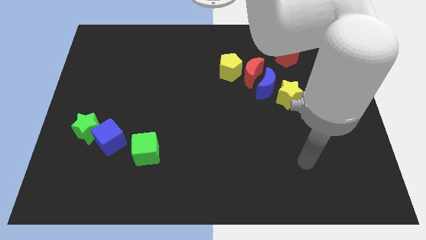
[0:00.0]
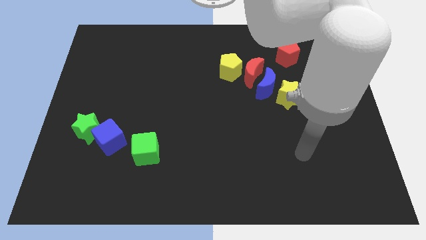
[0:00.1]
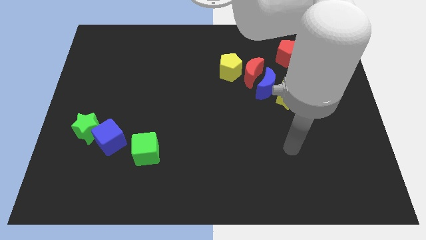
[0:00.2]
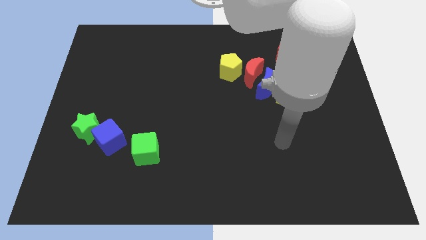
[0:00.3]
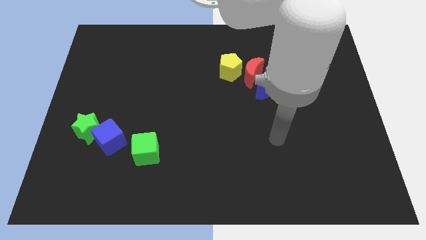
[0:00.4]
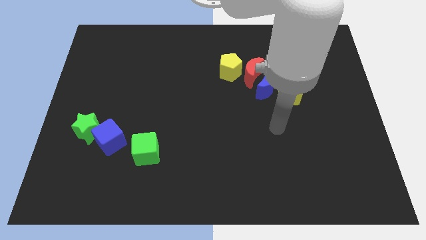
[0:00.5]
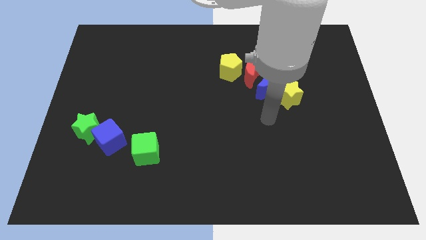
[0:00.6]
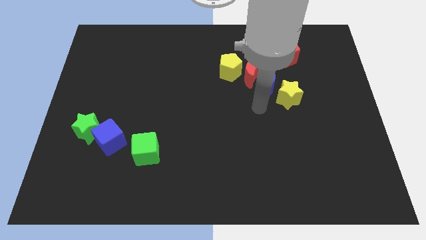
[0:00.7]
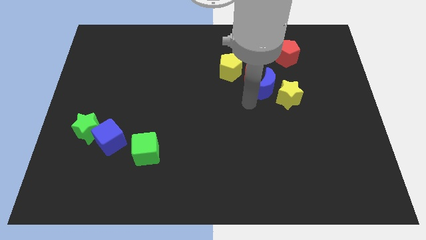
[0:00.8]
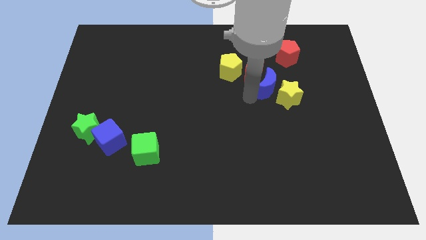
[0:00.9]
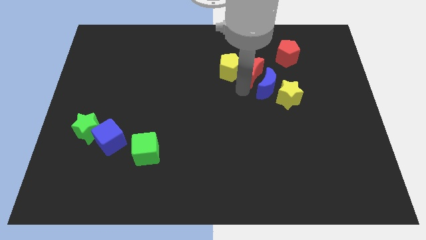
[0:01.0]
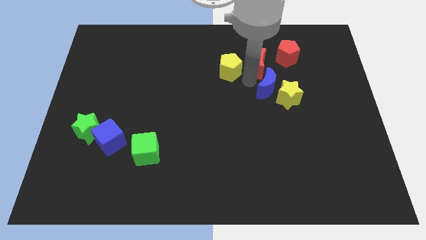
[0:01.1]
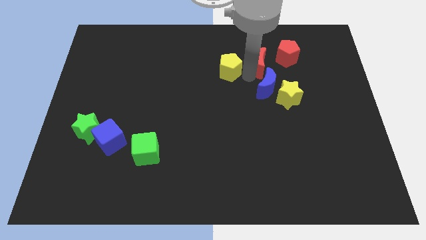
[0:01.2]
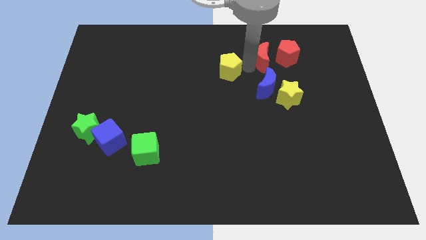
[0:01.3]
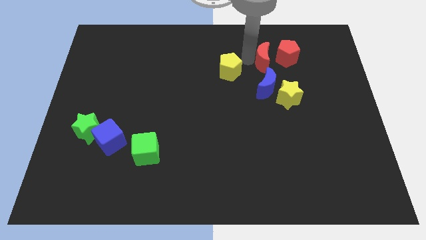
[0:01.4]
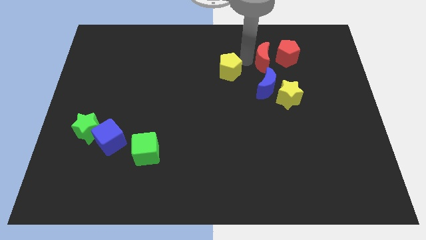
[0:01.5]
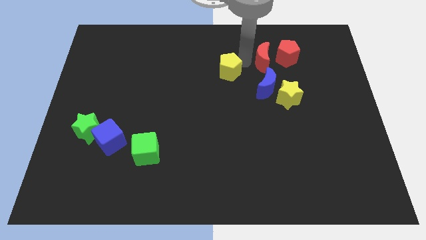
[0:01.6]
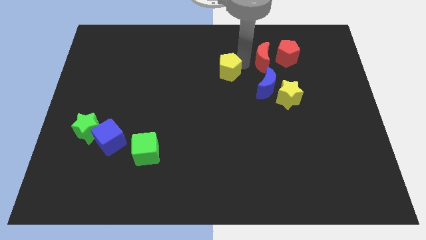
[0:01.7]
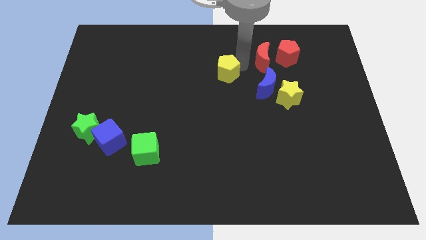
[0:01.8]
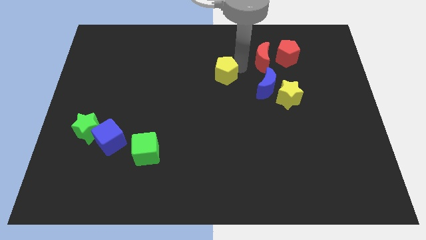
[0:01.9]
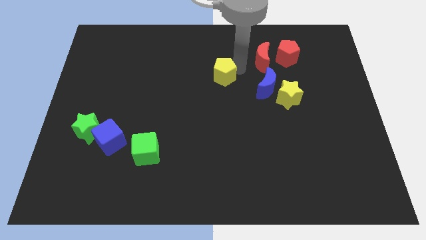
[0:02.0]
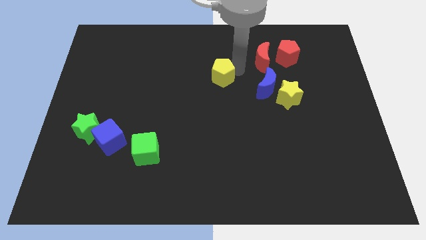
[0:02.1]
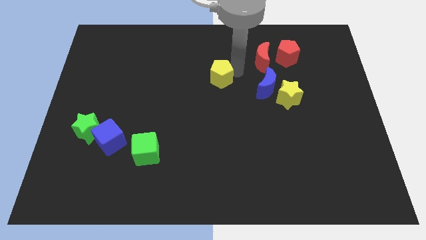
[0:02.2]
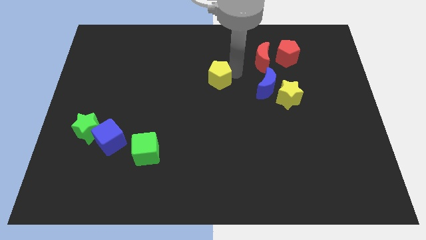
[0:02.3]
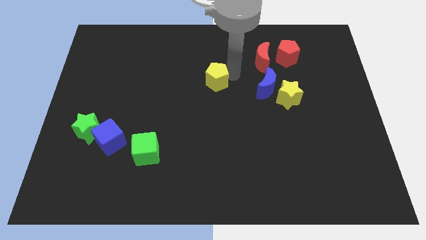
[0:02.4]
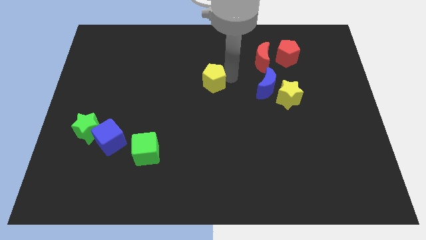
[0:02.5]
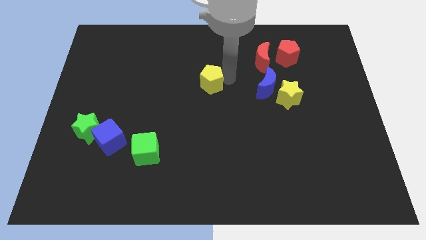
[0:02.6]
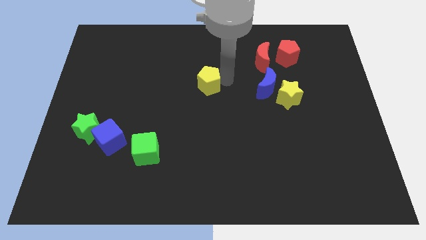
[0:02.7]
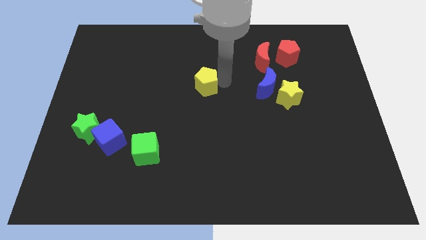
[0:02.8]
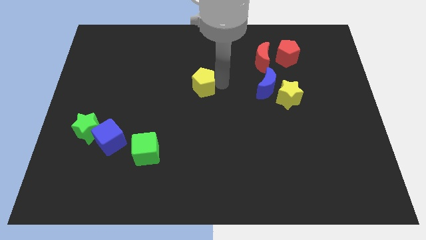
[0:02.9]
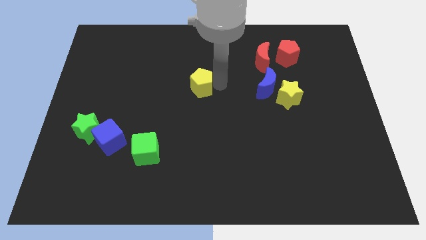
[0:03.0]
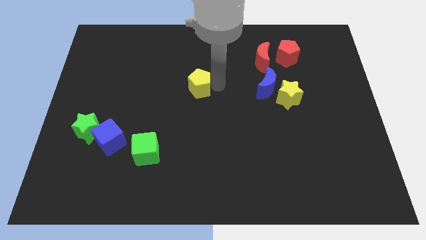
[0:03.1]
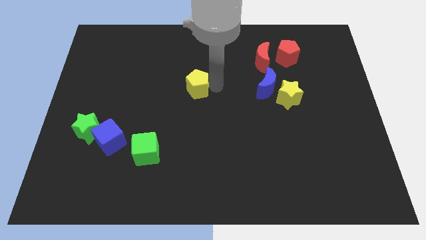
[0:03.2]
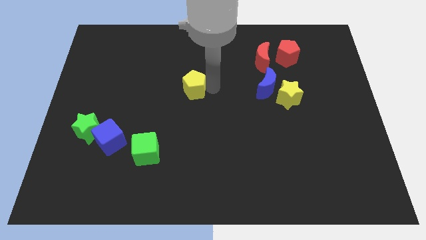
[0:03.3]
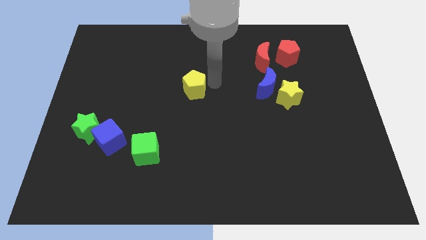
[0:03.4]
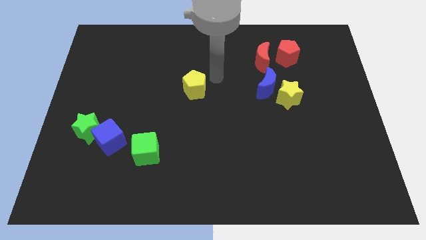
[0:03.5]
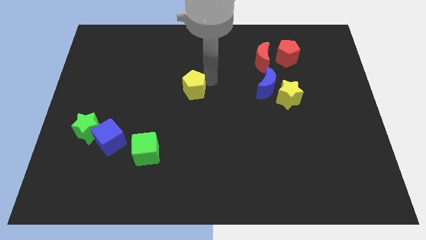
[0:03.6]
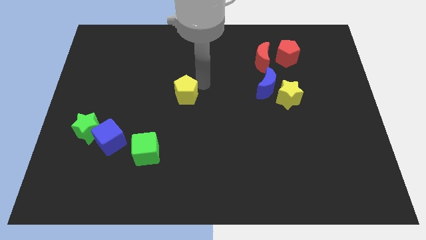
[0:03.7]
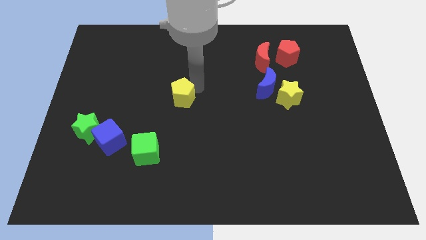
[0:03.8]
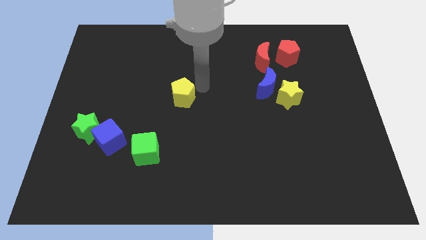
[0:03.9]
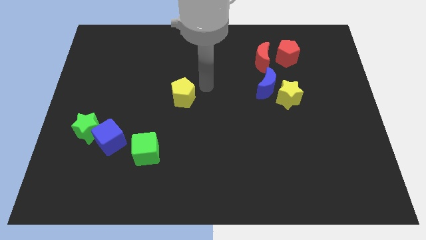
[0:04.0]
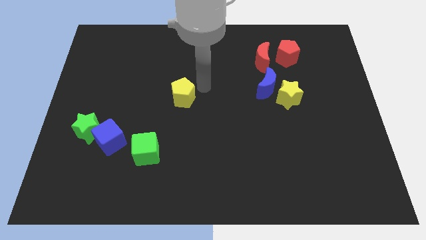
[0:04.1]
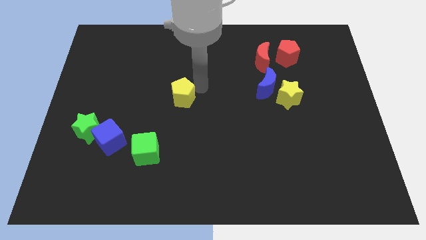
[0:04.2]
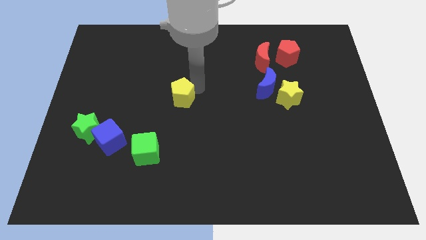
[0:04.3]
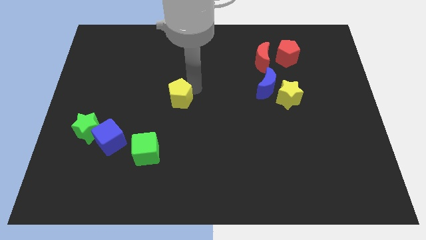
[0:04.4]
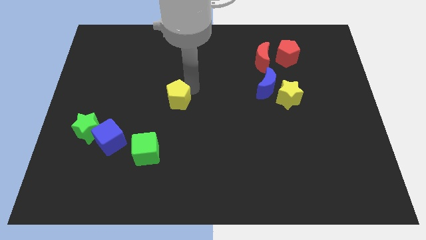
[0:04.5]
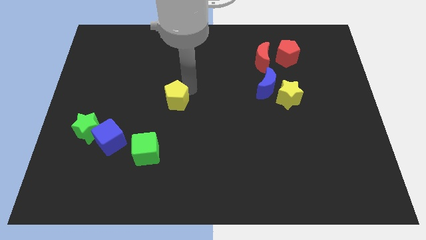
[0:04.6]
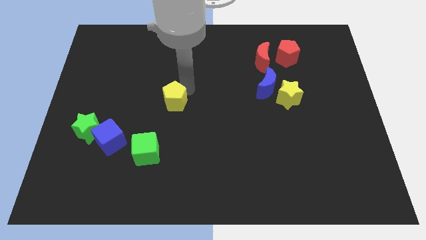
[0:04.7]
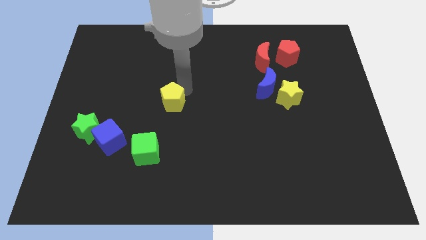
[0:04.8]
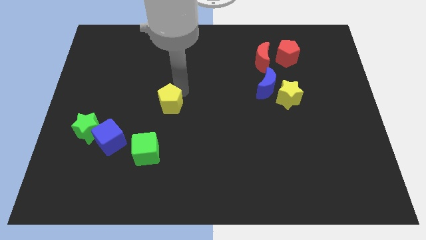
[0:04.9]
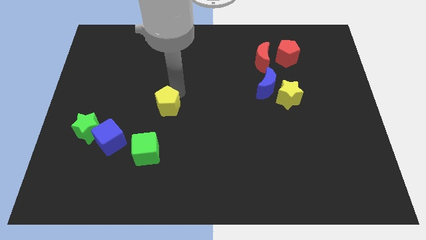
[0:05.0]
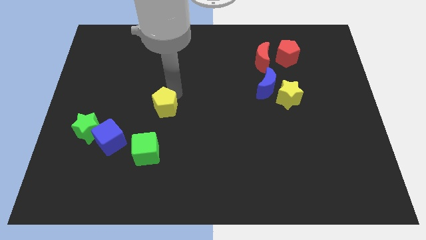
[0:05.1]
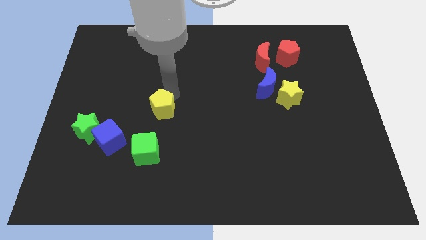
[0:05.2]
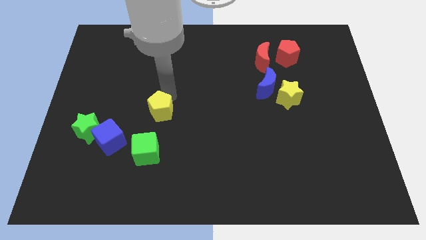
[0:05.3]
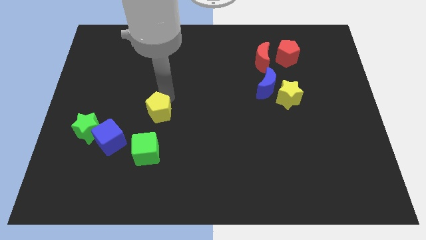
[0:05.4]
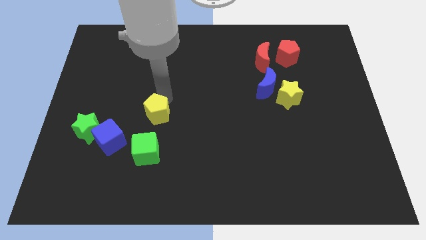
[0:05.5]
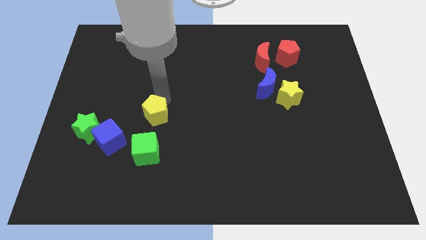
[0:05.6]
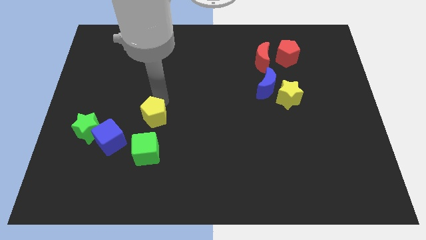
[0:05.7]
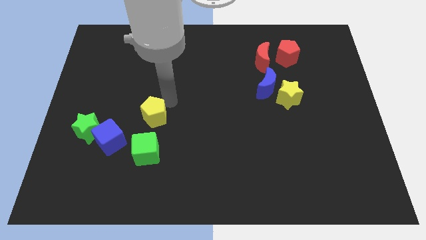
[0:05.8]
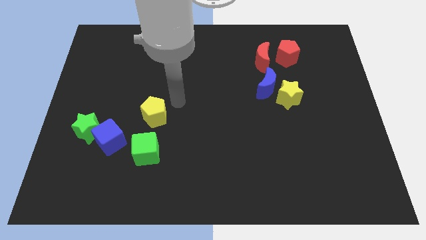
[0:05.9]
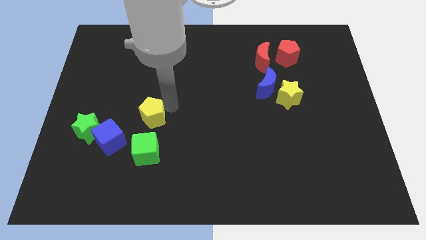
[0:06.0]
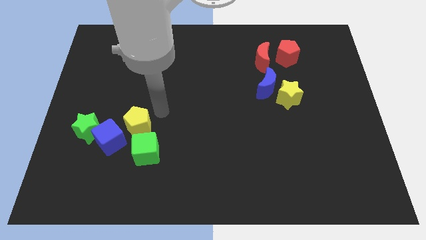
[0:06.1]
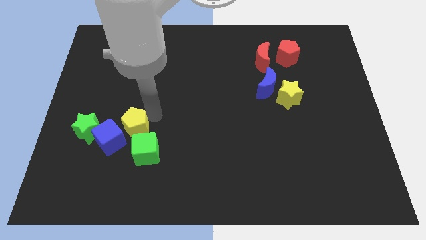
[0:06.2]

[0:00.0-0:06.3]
slide the yellow pentagon next to the blue cube

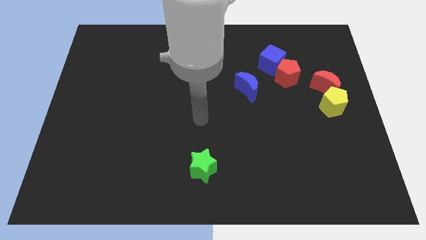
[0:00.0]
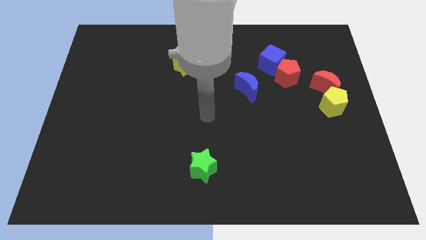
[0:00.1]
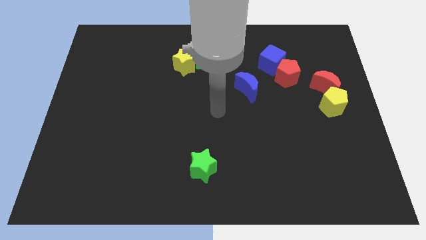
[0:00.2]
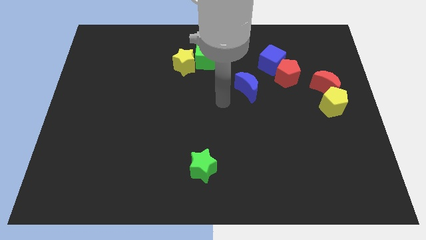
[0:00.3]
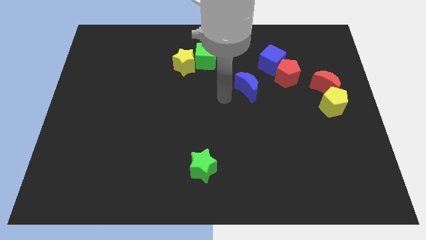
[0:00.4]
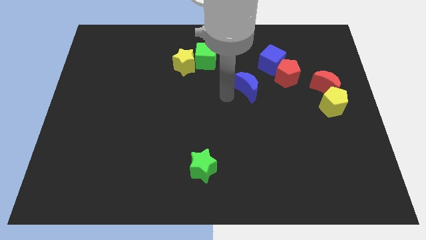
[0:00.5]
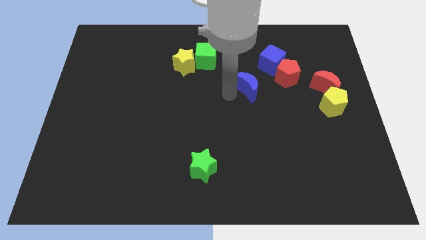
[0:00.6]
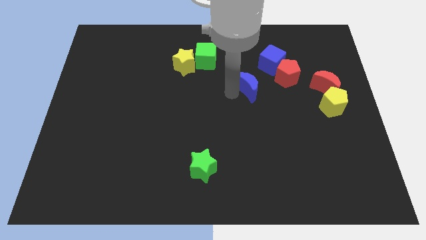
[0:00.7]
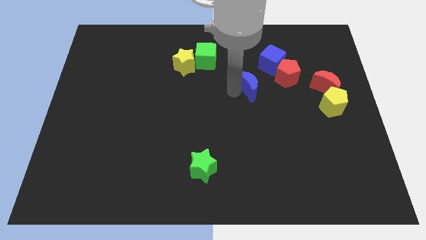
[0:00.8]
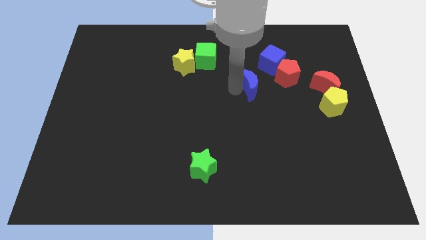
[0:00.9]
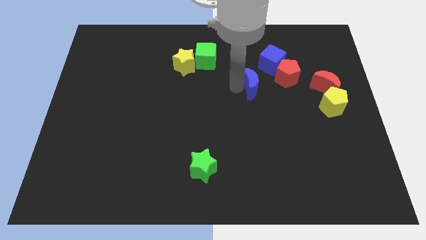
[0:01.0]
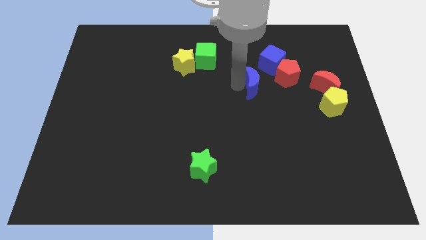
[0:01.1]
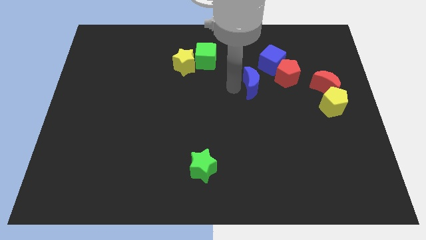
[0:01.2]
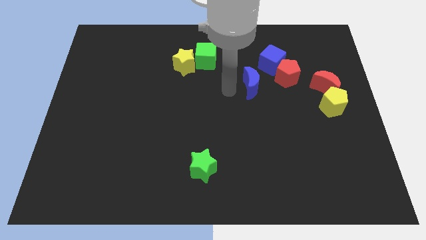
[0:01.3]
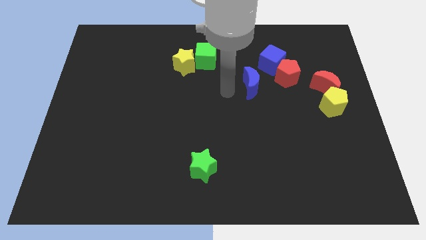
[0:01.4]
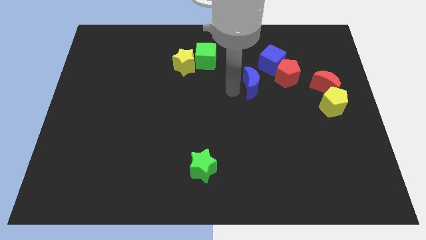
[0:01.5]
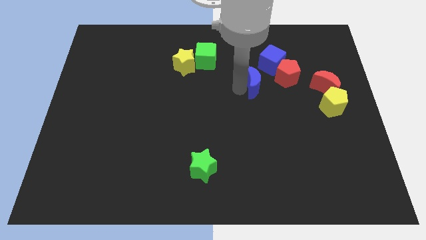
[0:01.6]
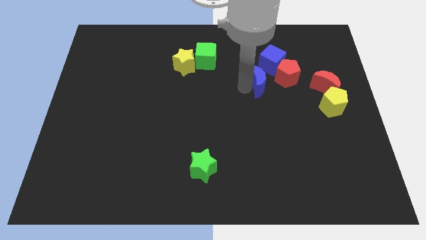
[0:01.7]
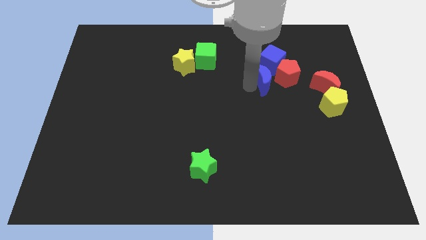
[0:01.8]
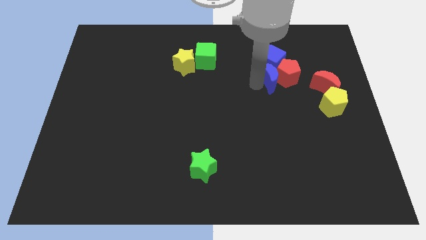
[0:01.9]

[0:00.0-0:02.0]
slide the blue moon next to the red pentagon
